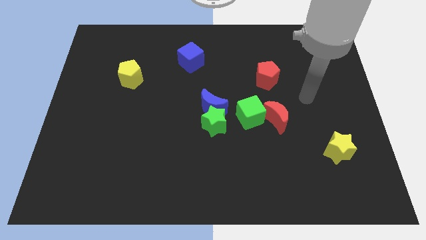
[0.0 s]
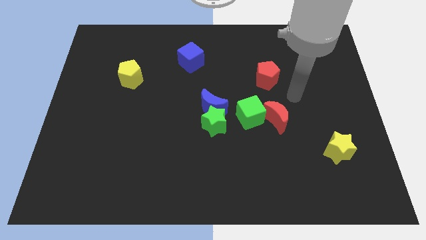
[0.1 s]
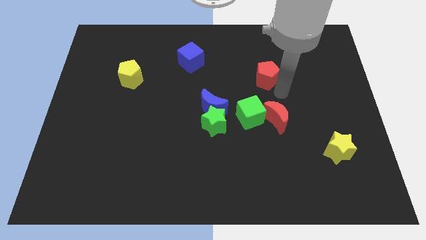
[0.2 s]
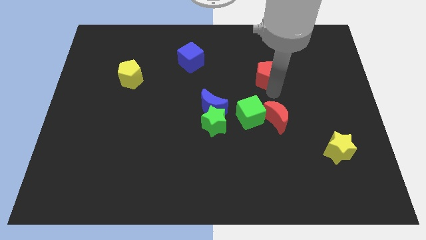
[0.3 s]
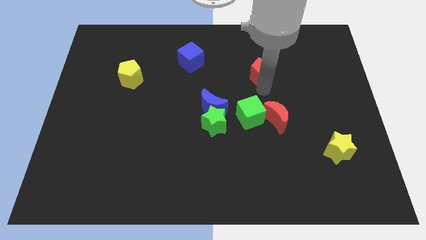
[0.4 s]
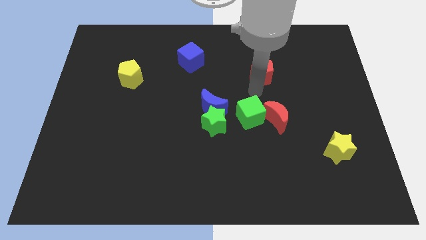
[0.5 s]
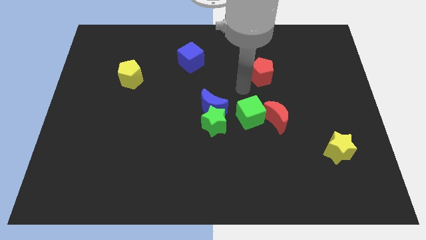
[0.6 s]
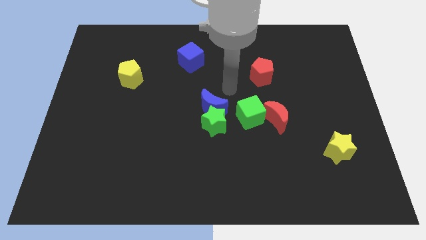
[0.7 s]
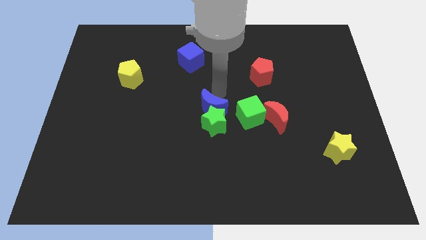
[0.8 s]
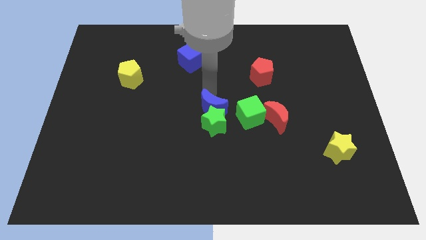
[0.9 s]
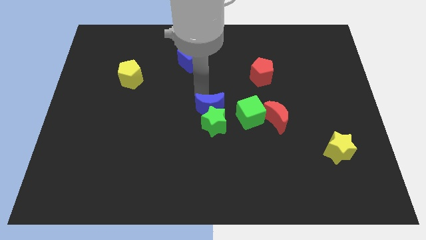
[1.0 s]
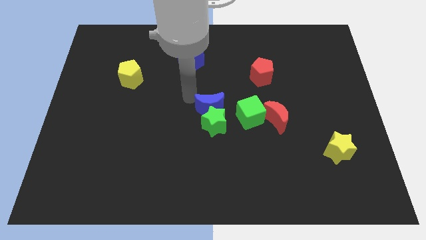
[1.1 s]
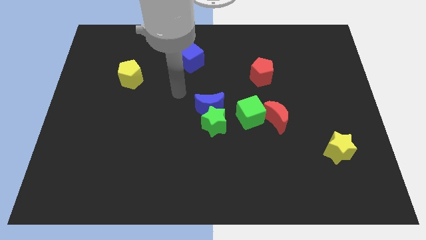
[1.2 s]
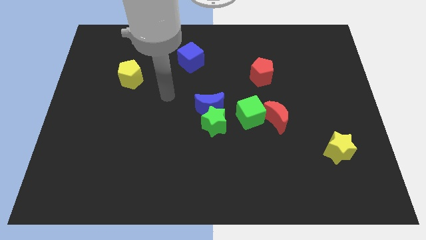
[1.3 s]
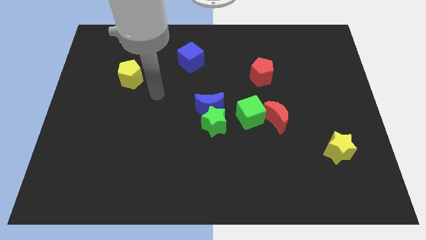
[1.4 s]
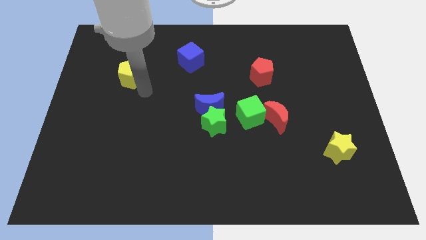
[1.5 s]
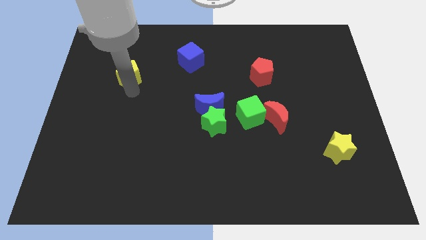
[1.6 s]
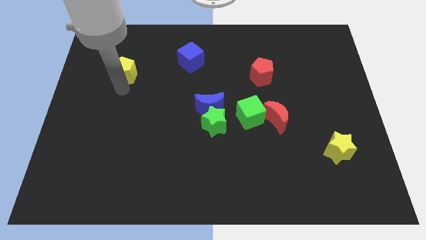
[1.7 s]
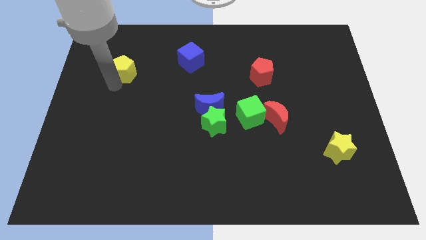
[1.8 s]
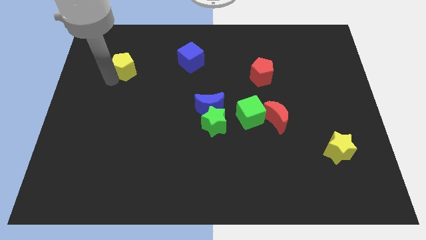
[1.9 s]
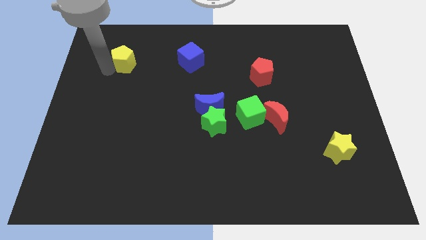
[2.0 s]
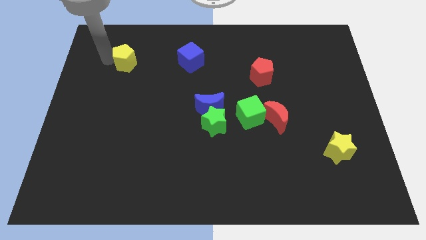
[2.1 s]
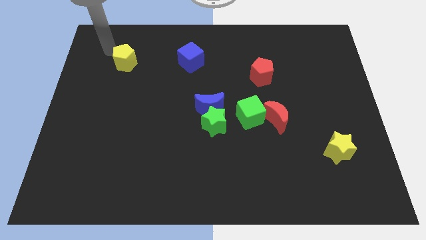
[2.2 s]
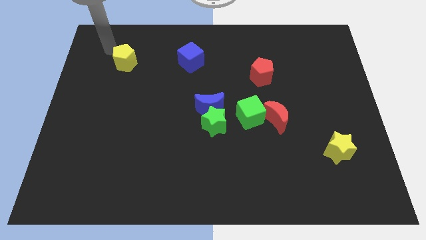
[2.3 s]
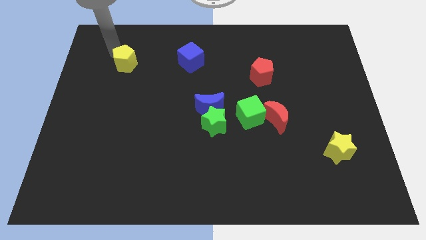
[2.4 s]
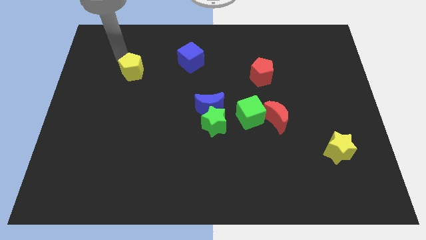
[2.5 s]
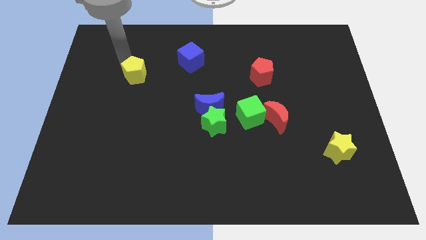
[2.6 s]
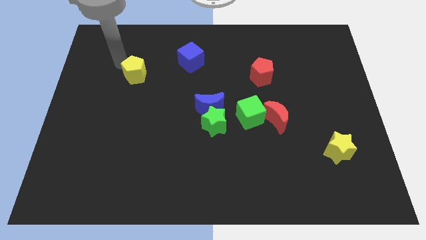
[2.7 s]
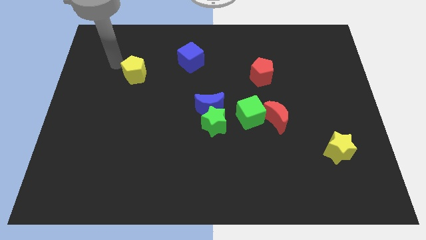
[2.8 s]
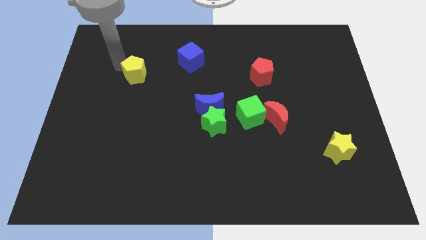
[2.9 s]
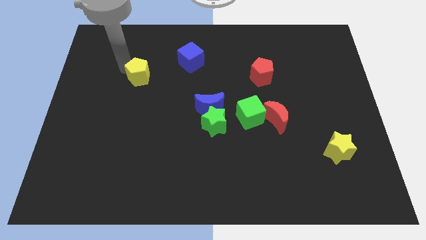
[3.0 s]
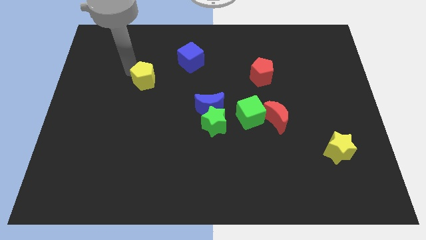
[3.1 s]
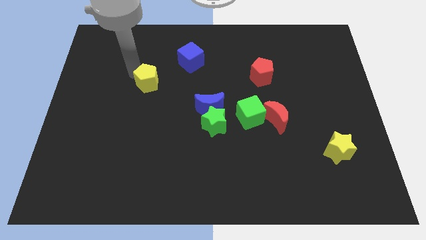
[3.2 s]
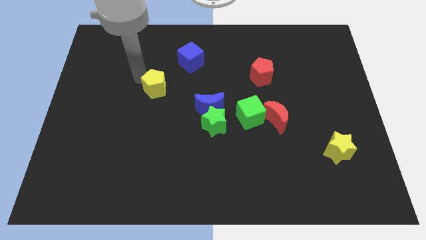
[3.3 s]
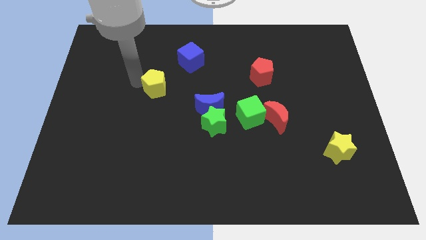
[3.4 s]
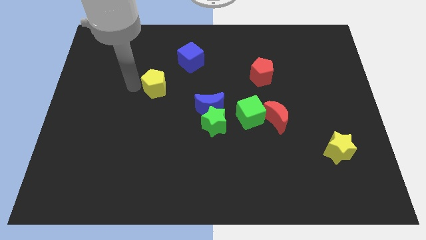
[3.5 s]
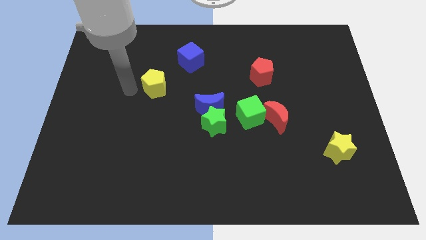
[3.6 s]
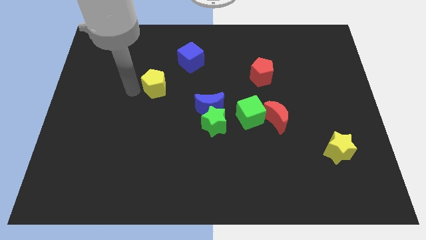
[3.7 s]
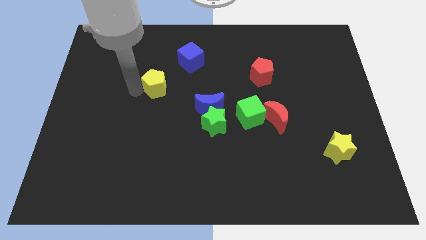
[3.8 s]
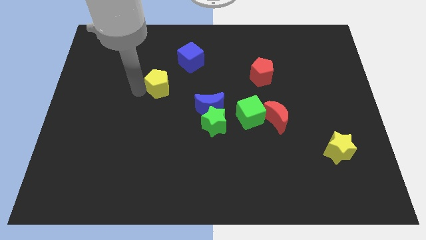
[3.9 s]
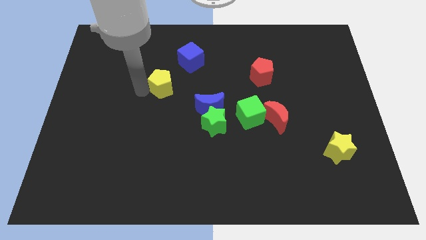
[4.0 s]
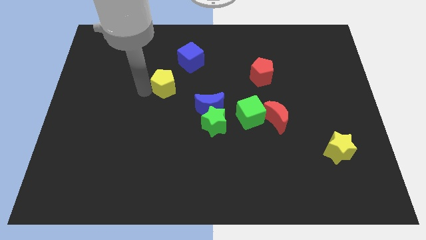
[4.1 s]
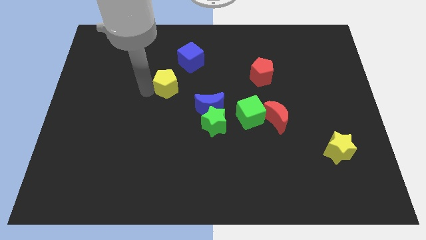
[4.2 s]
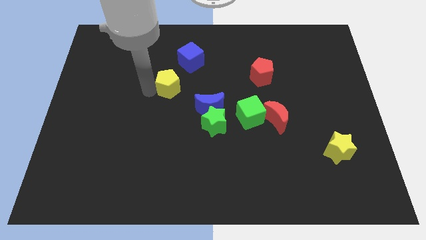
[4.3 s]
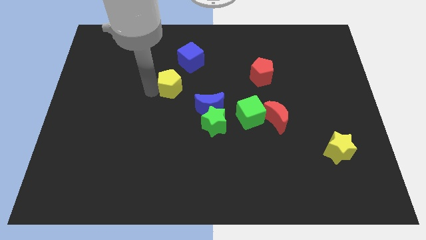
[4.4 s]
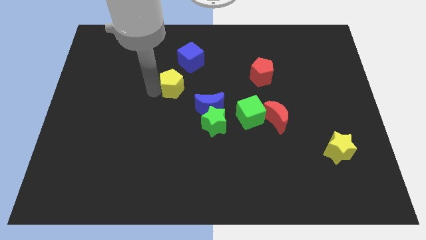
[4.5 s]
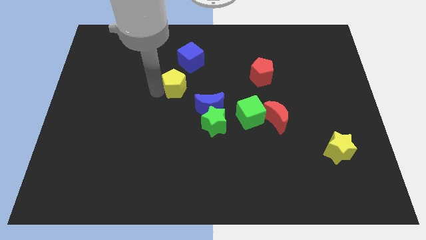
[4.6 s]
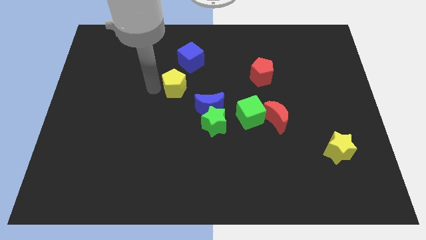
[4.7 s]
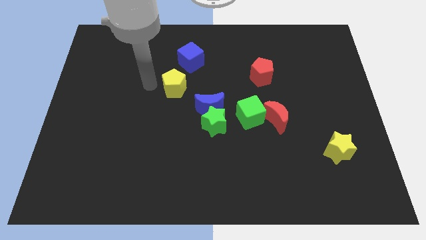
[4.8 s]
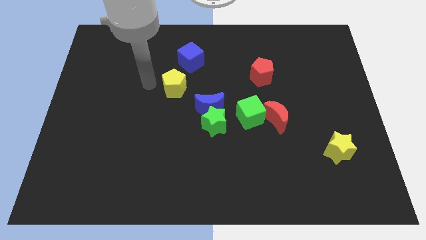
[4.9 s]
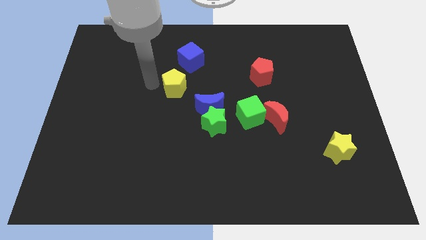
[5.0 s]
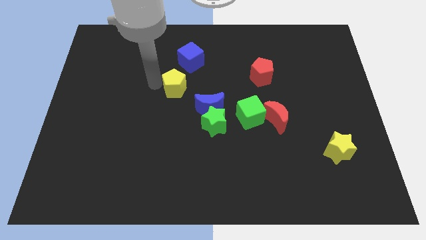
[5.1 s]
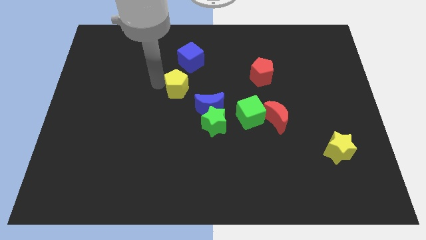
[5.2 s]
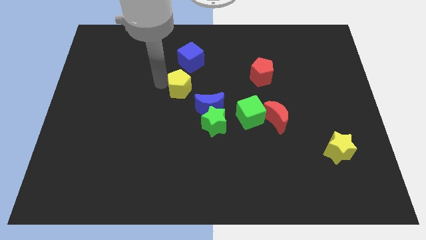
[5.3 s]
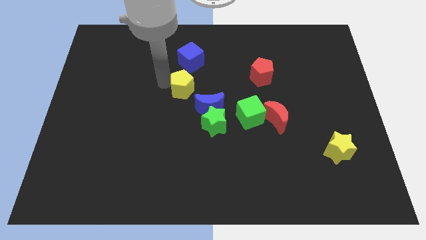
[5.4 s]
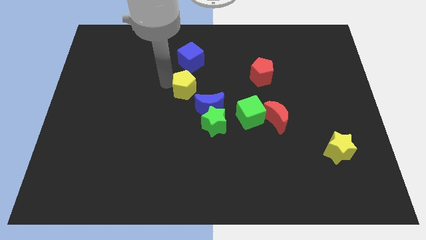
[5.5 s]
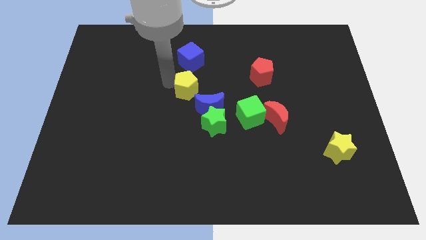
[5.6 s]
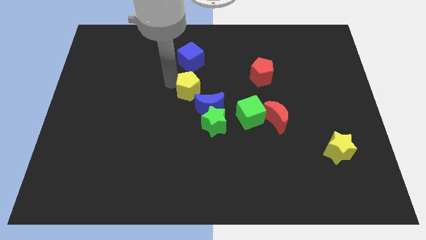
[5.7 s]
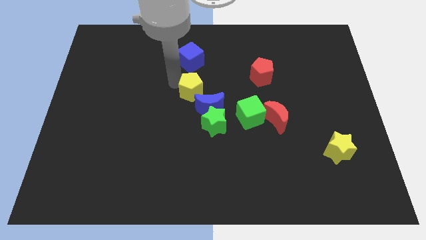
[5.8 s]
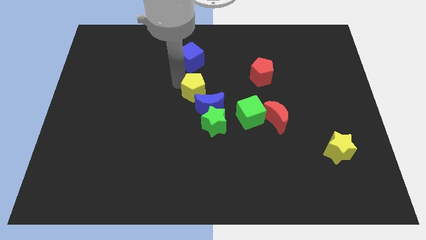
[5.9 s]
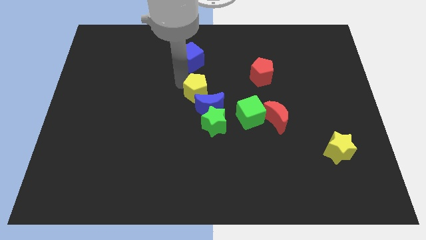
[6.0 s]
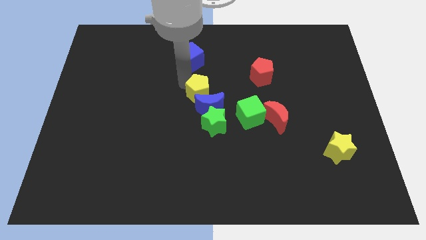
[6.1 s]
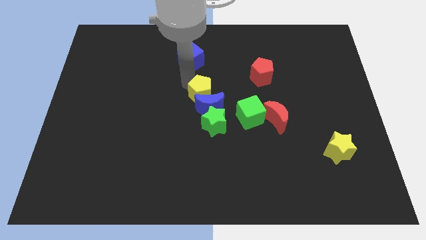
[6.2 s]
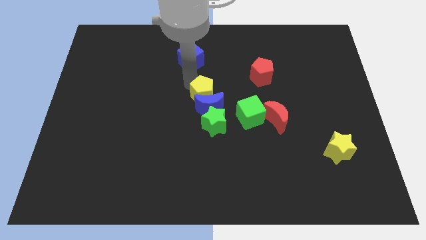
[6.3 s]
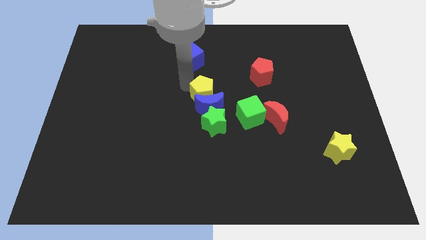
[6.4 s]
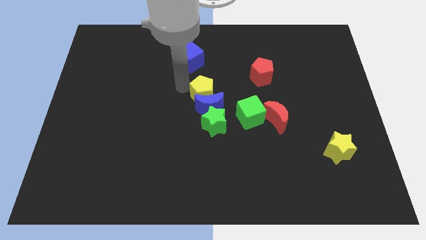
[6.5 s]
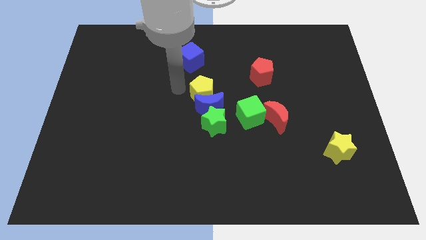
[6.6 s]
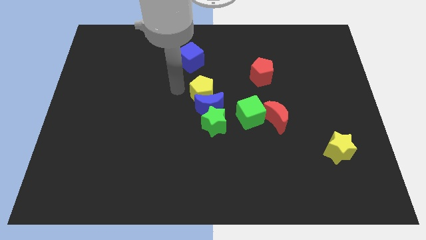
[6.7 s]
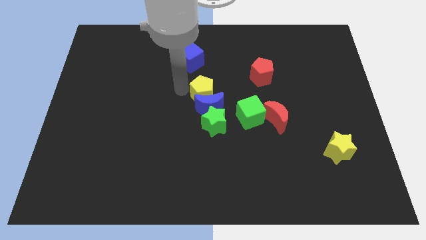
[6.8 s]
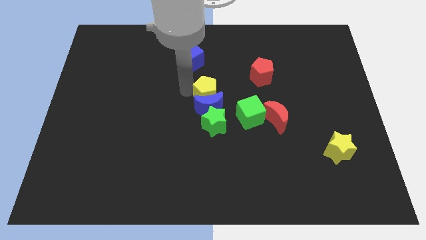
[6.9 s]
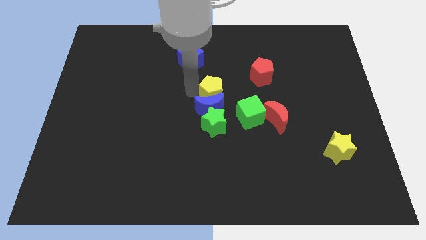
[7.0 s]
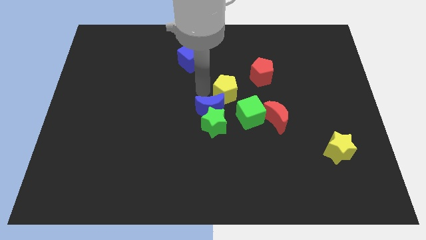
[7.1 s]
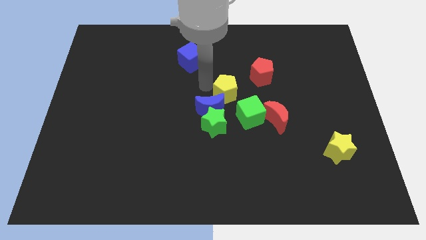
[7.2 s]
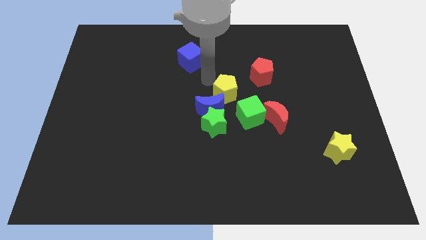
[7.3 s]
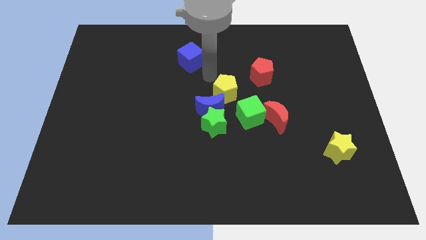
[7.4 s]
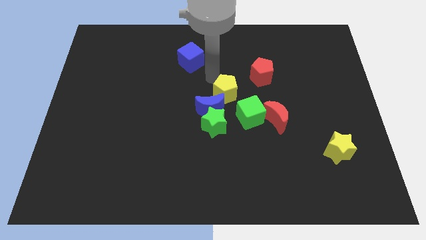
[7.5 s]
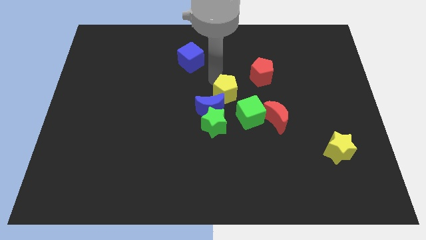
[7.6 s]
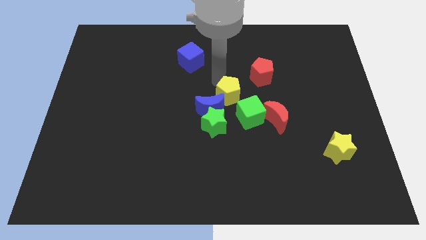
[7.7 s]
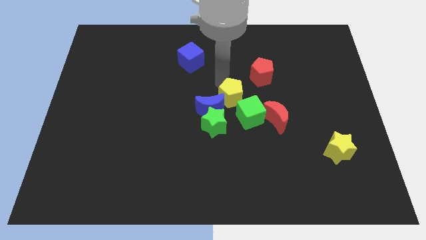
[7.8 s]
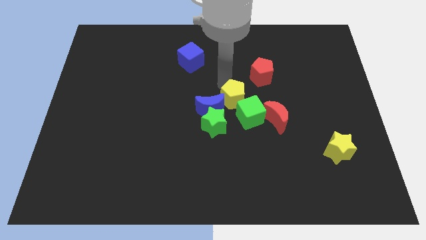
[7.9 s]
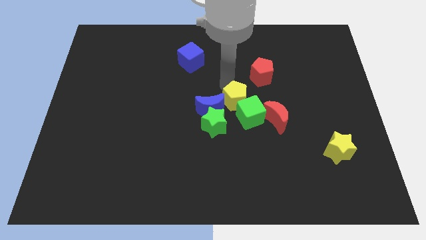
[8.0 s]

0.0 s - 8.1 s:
move the yellow pentagon next to the green cube
